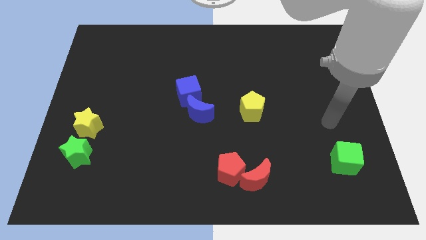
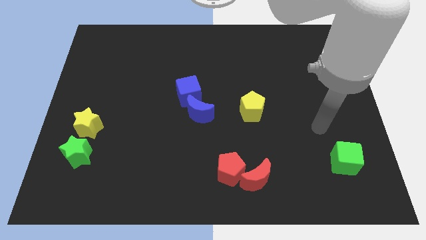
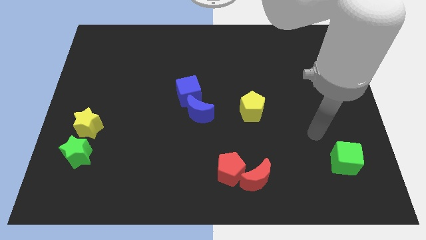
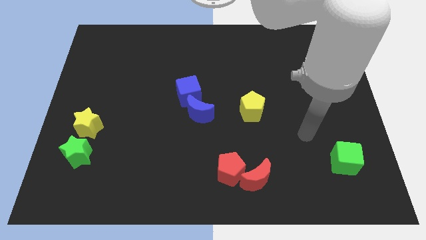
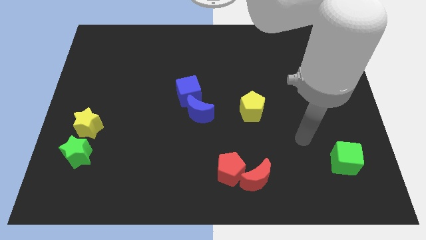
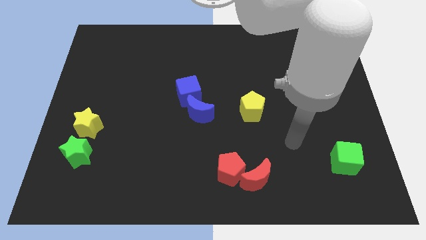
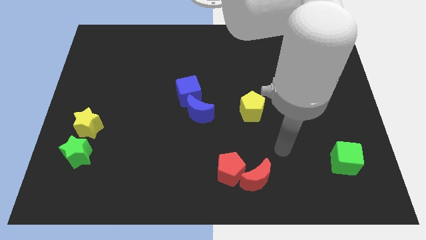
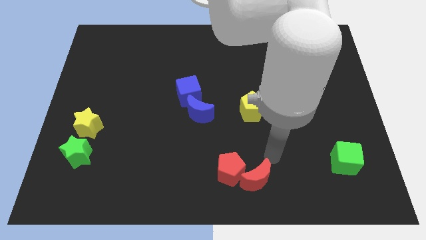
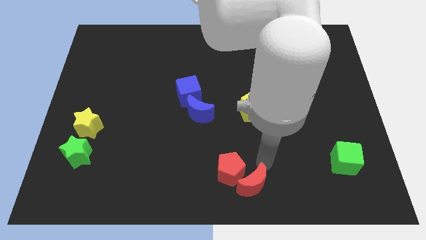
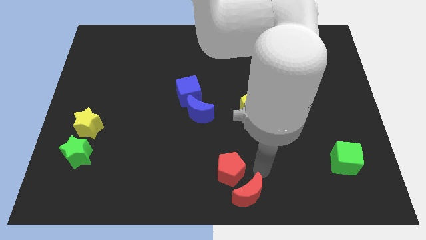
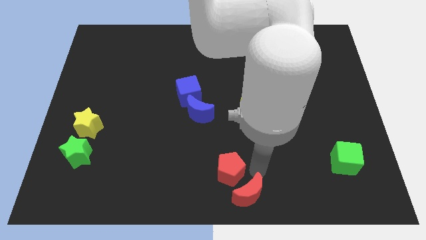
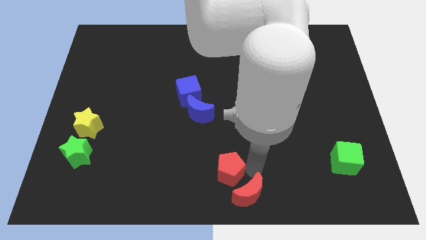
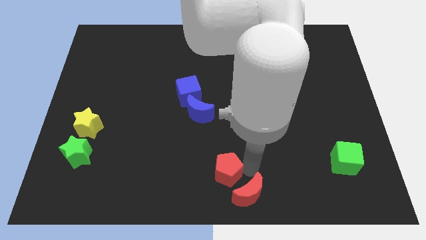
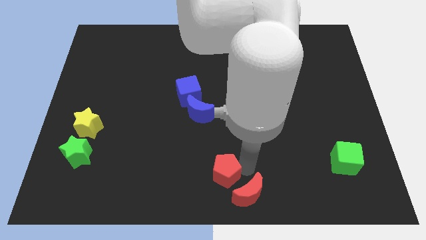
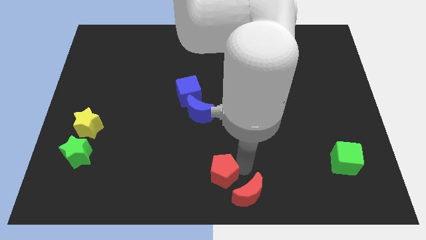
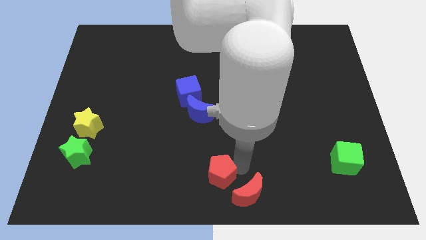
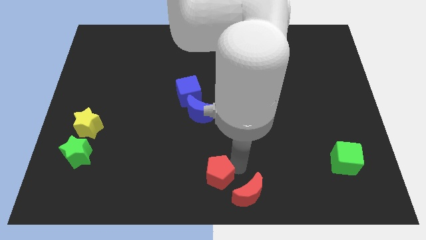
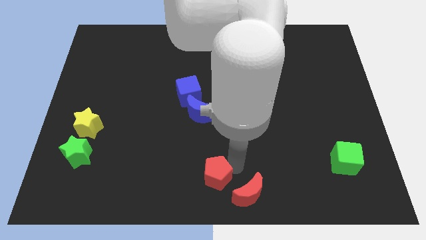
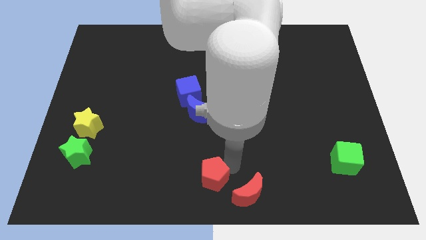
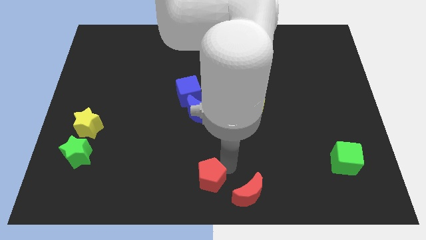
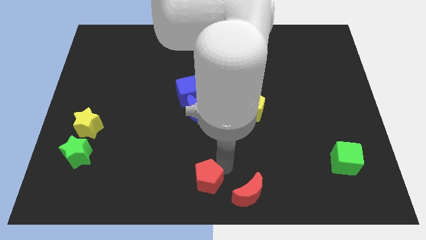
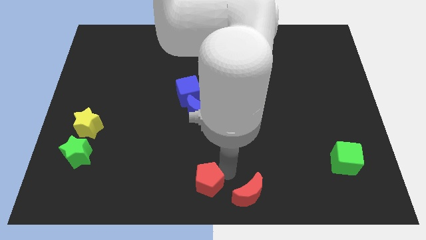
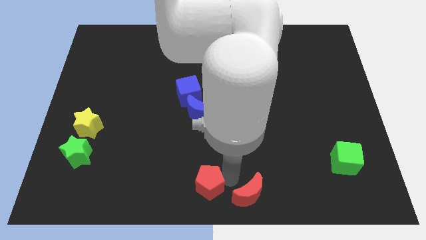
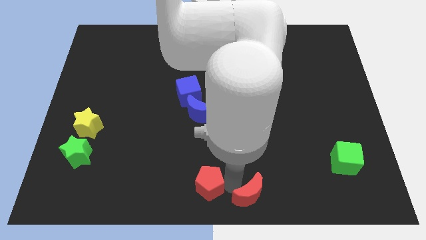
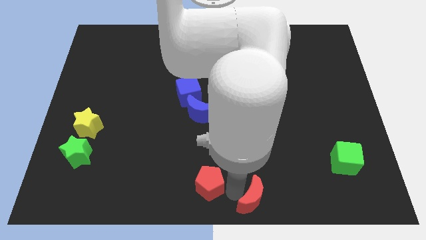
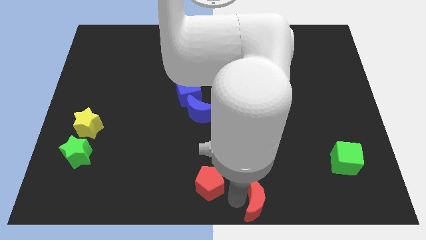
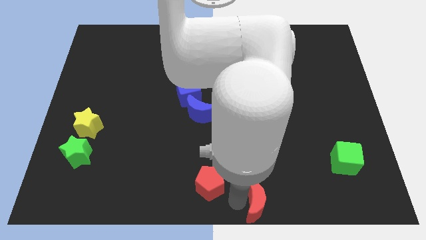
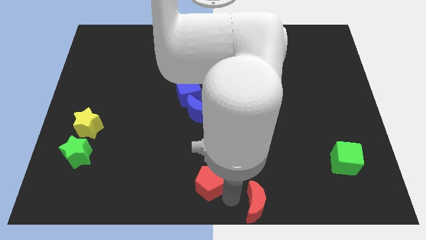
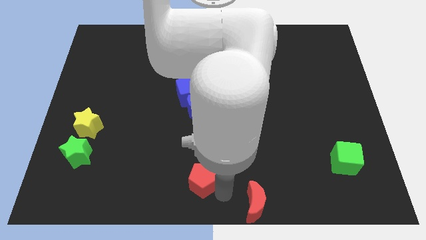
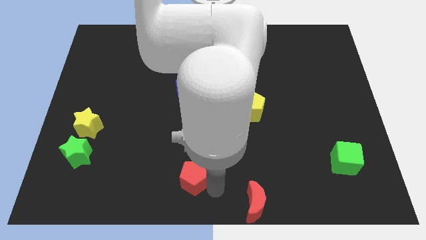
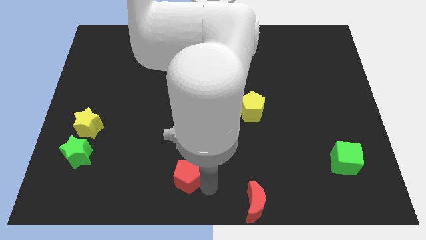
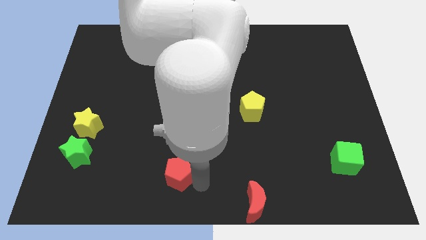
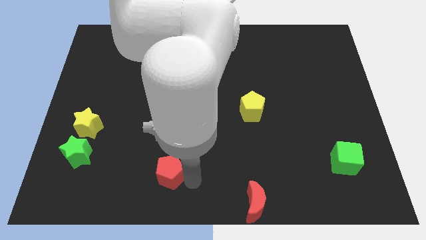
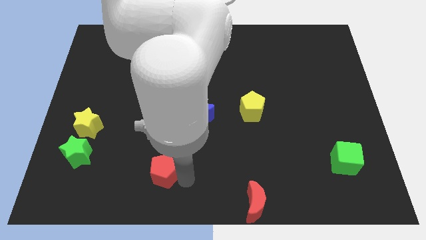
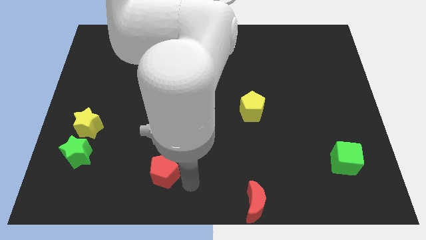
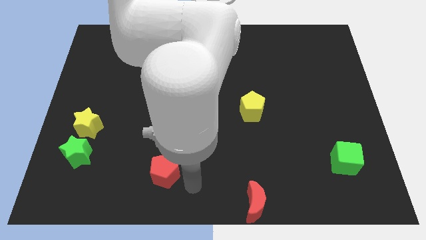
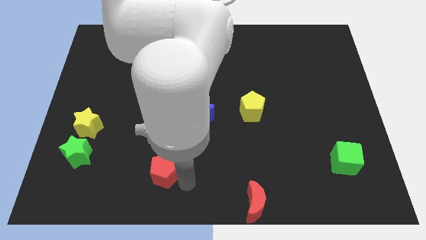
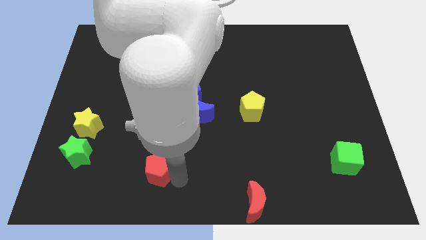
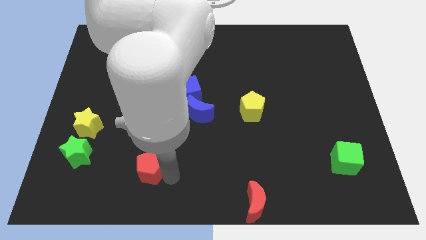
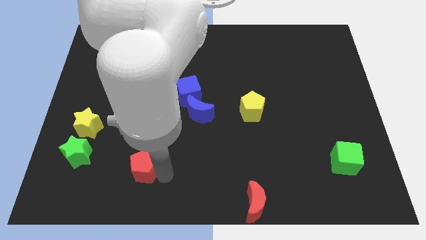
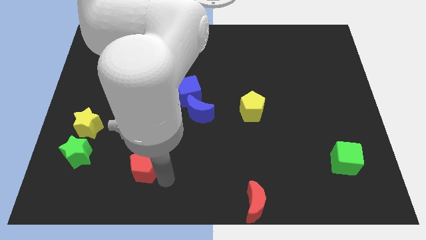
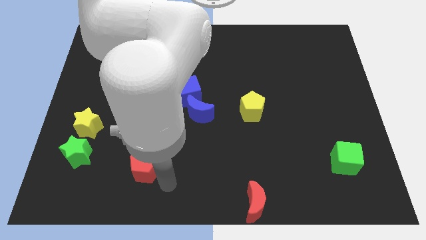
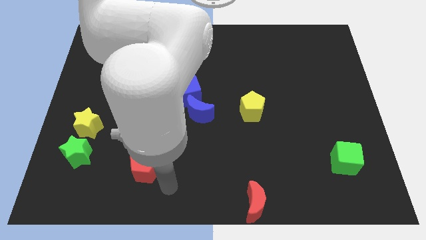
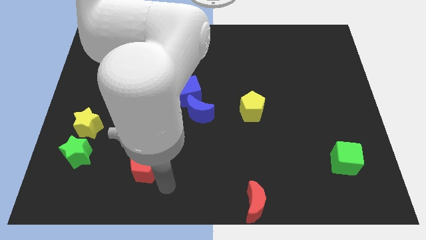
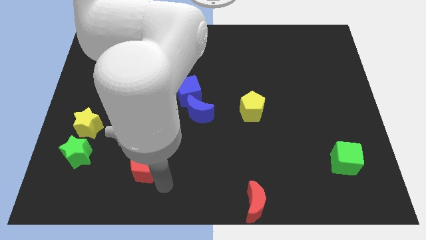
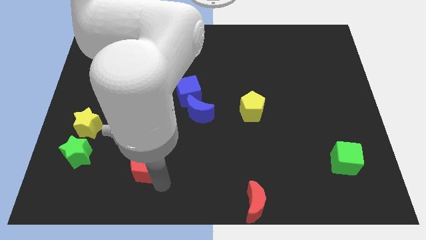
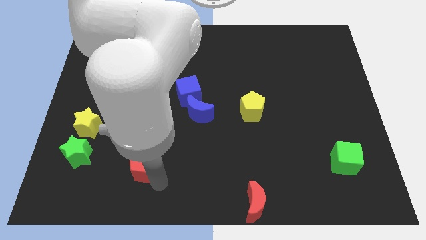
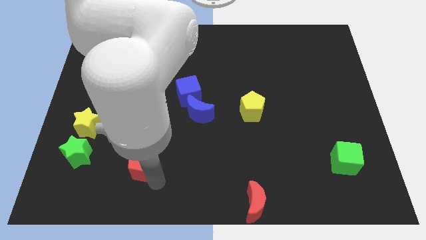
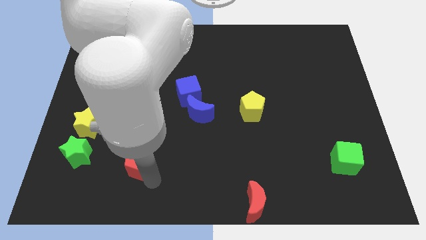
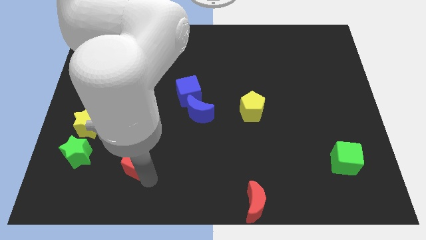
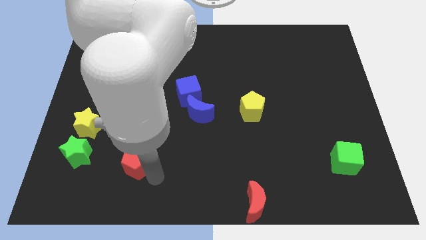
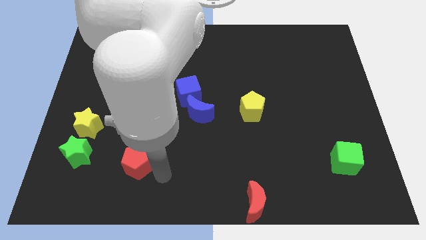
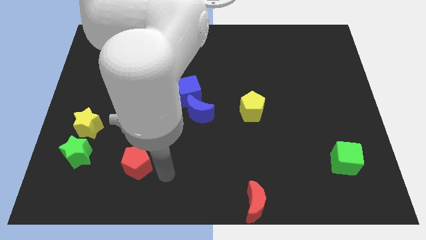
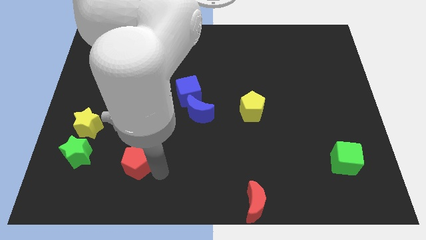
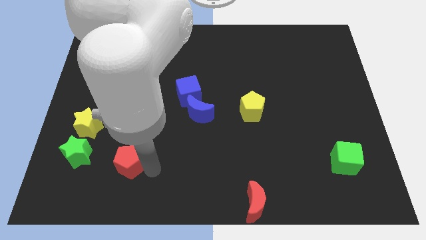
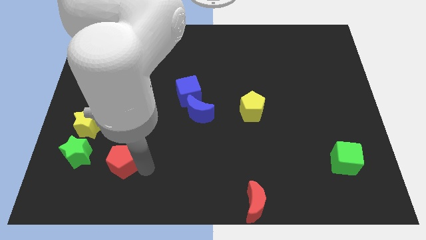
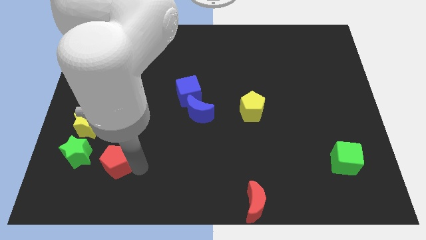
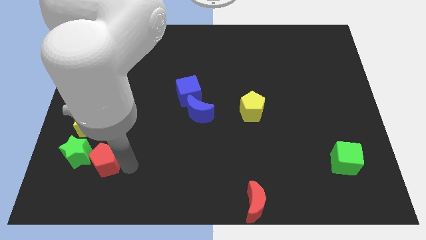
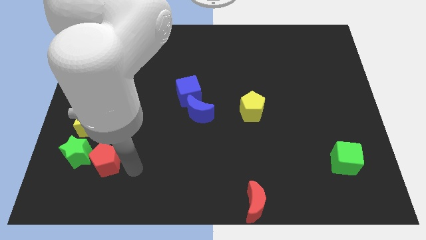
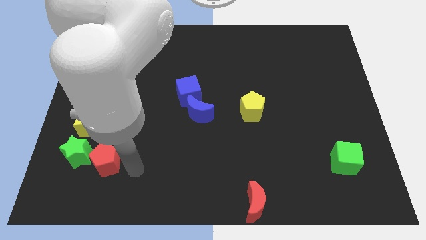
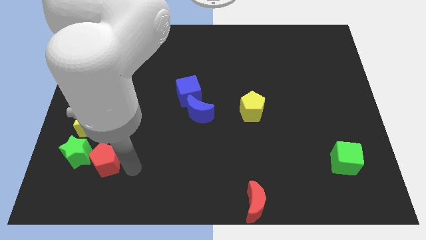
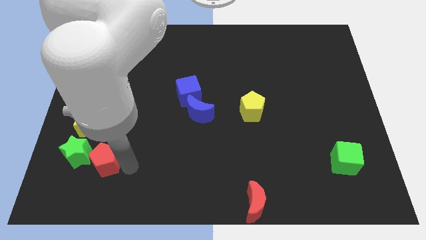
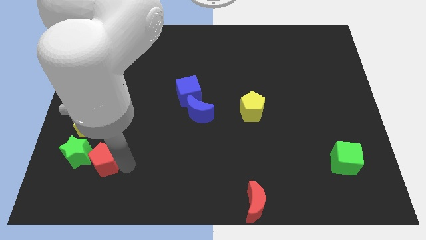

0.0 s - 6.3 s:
push the red pentagon close to the green star

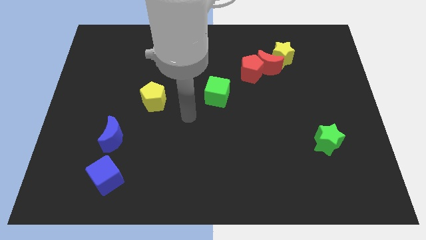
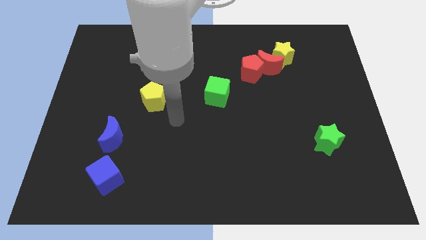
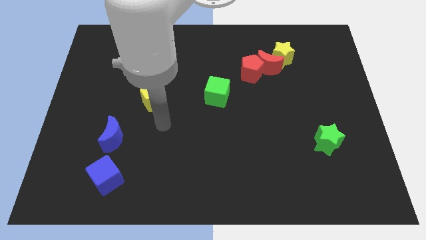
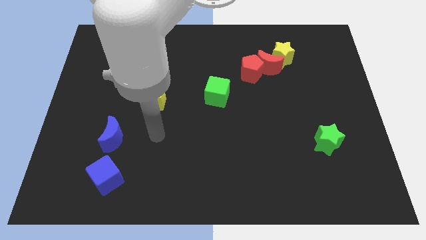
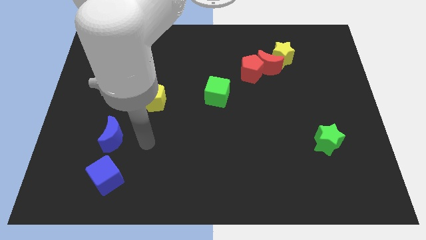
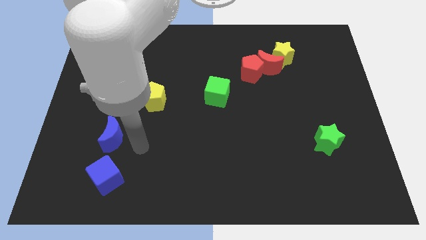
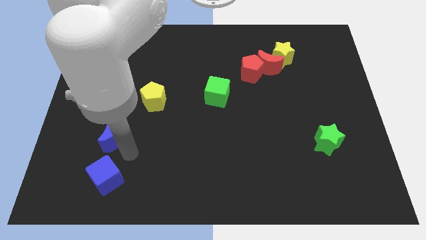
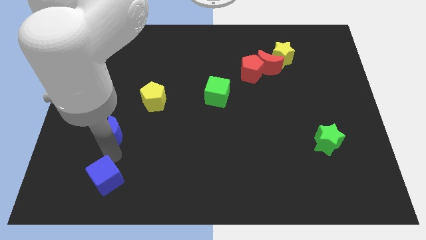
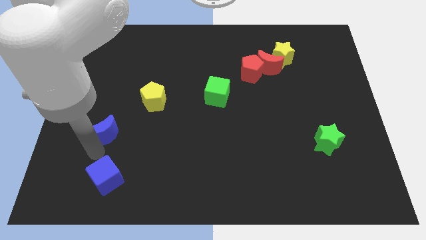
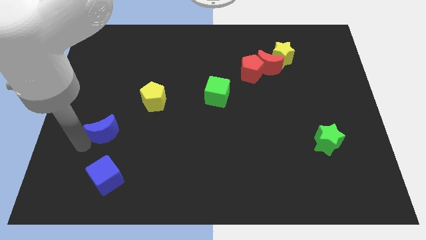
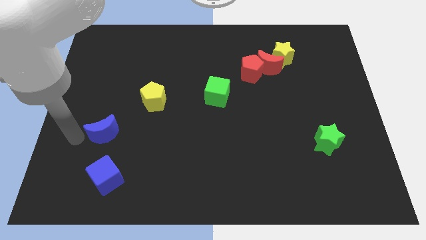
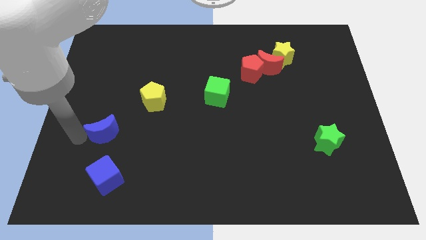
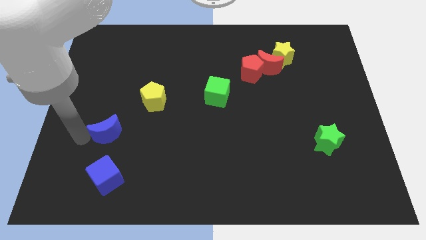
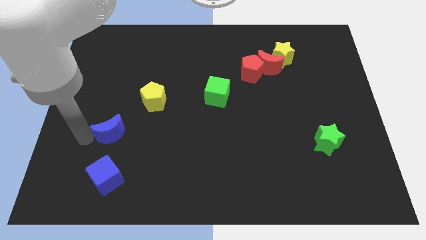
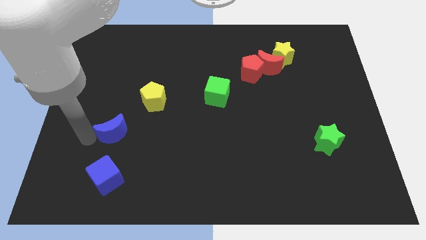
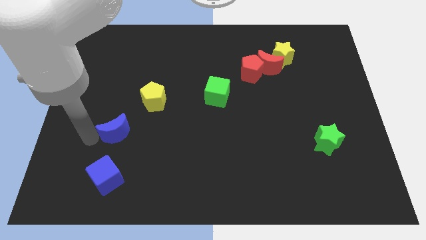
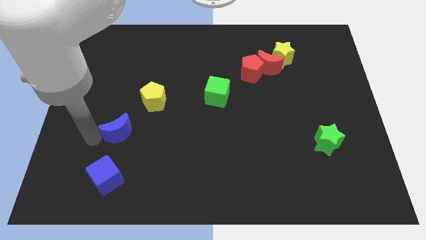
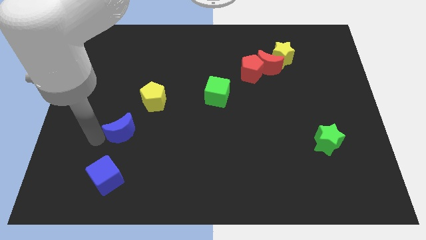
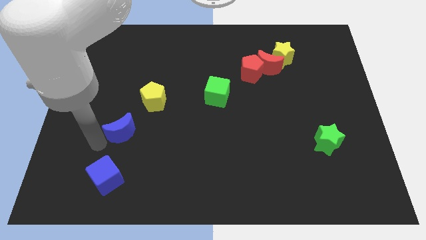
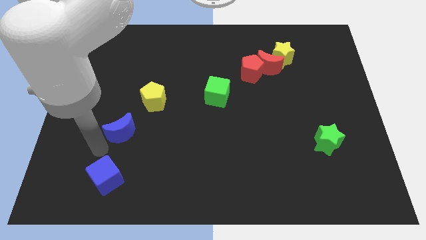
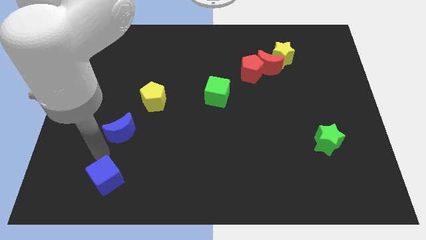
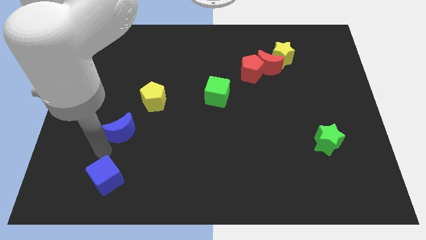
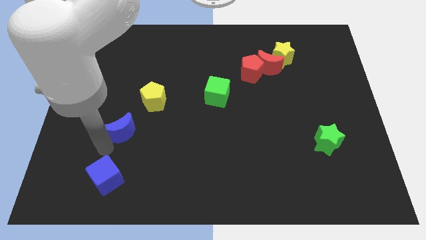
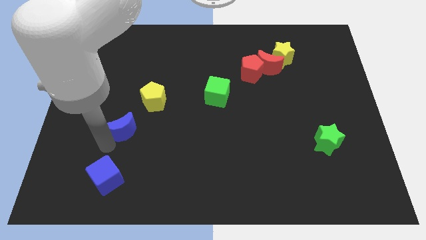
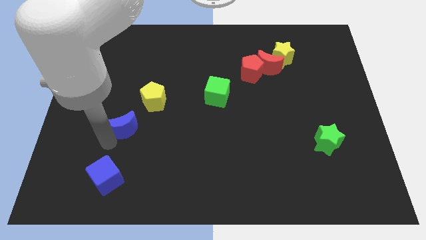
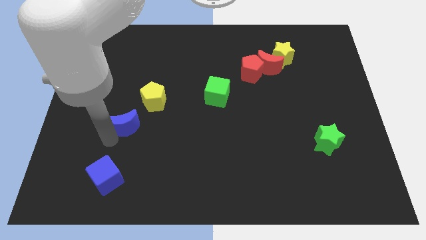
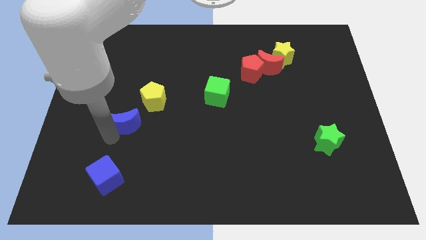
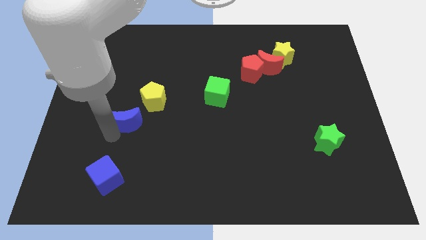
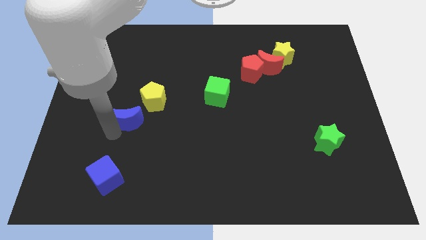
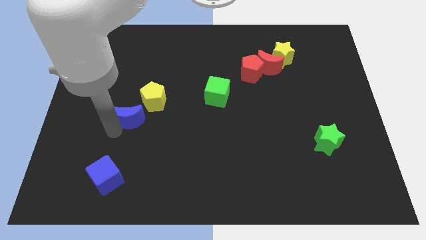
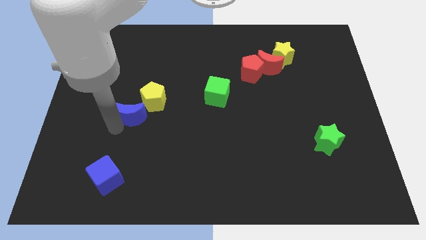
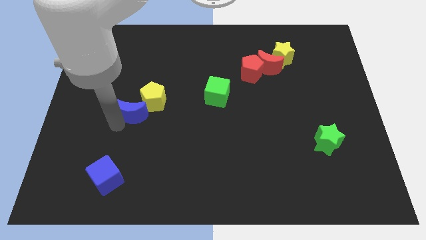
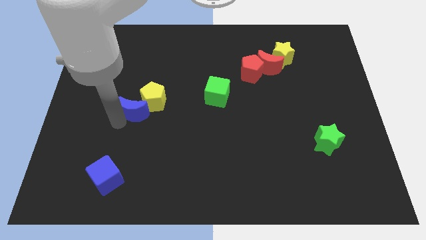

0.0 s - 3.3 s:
move the blue moon to the yellow pentagon
